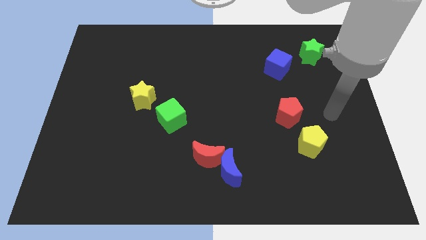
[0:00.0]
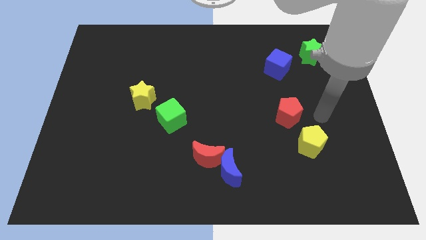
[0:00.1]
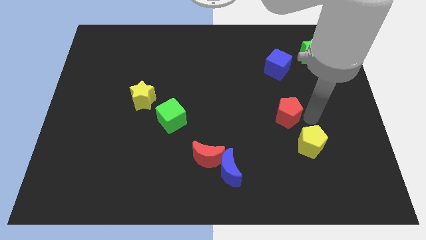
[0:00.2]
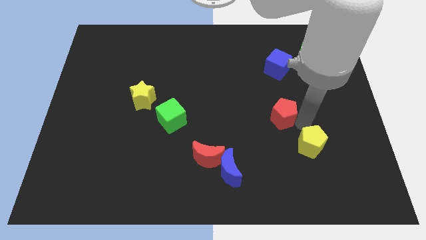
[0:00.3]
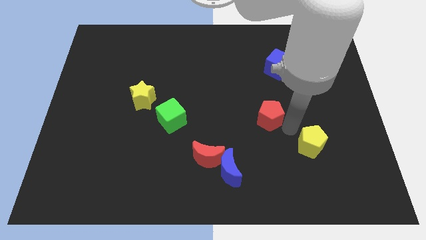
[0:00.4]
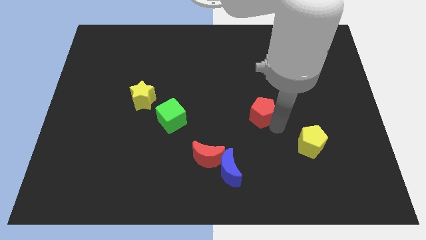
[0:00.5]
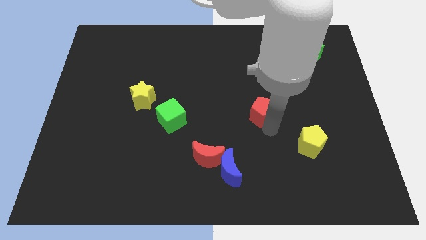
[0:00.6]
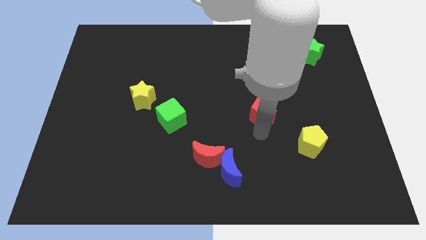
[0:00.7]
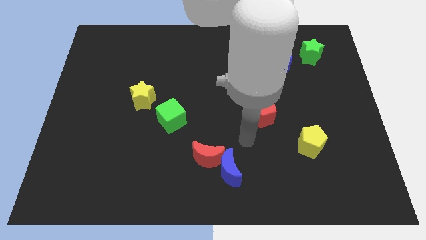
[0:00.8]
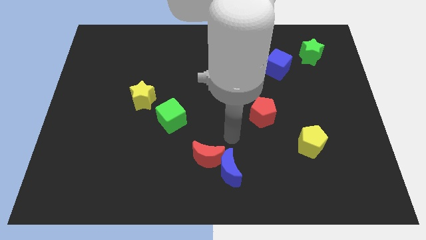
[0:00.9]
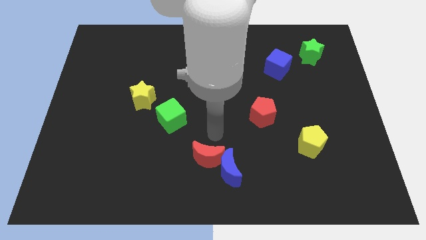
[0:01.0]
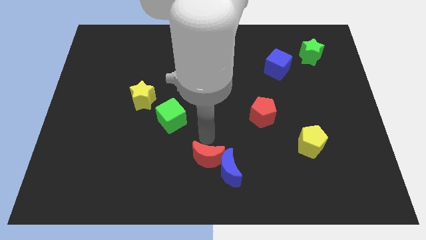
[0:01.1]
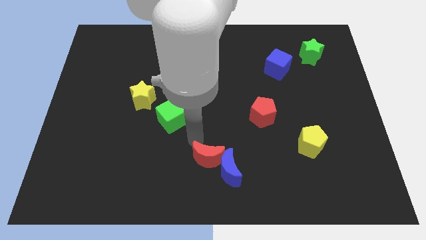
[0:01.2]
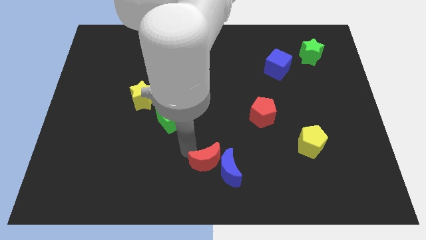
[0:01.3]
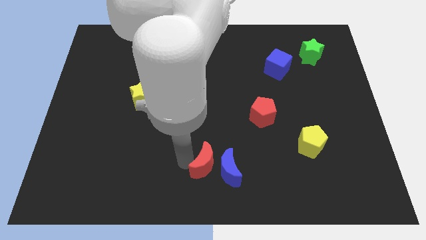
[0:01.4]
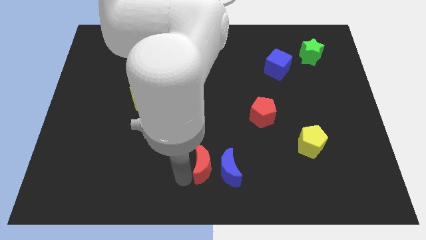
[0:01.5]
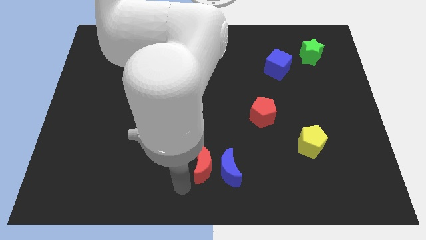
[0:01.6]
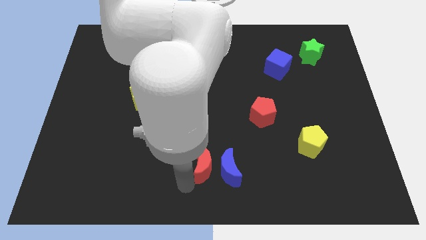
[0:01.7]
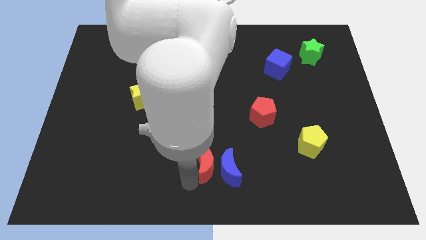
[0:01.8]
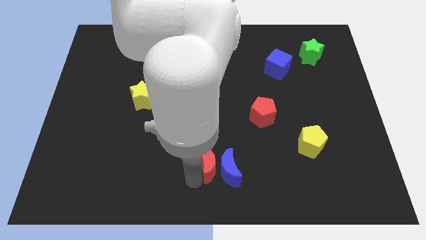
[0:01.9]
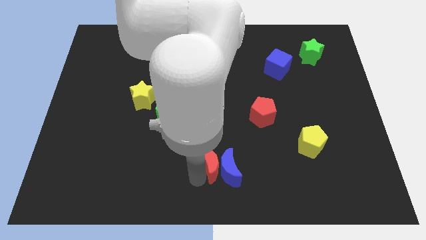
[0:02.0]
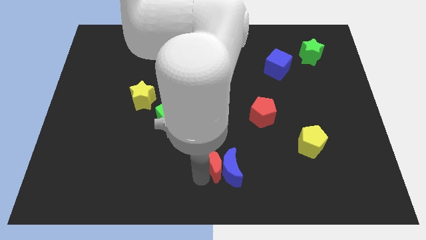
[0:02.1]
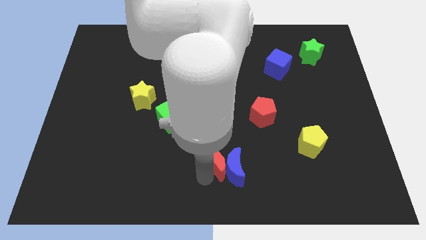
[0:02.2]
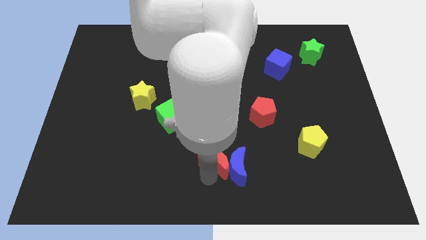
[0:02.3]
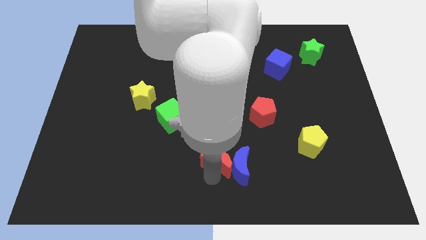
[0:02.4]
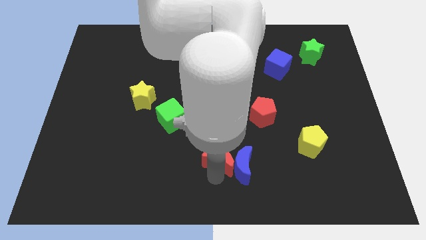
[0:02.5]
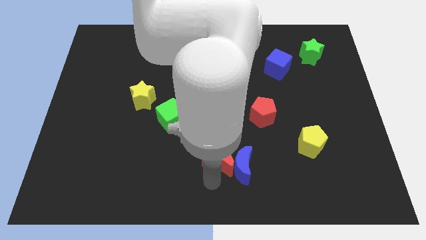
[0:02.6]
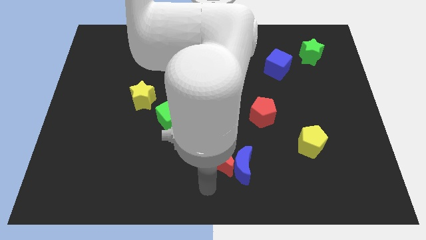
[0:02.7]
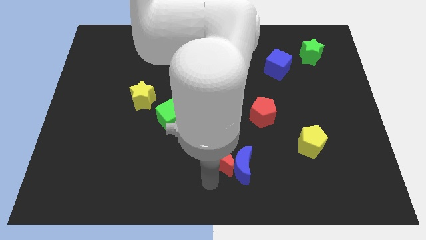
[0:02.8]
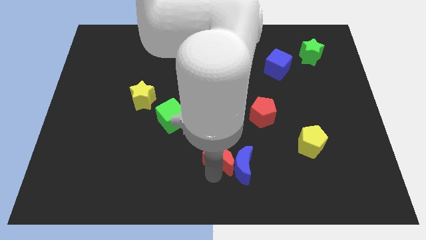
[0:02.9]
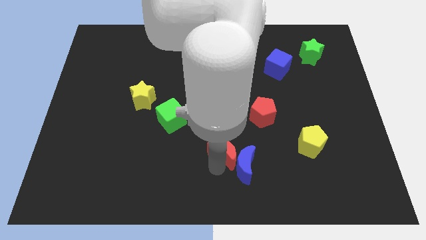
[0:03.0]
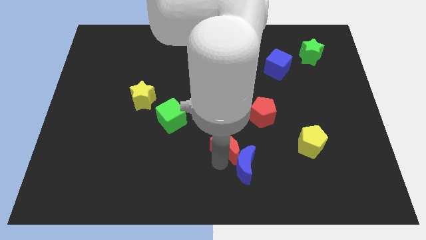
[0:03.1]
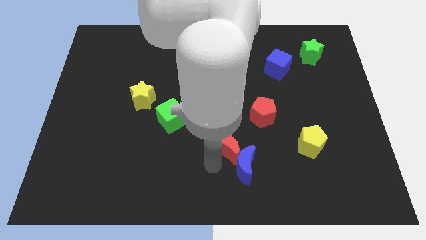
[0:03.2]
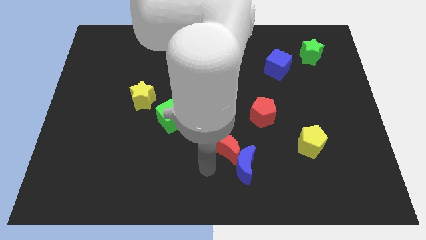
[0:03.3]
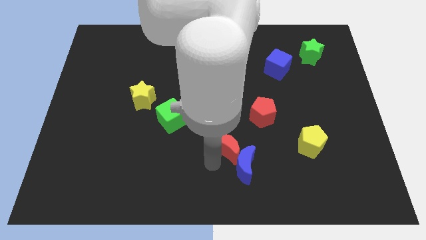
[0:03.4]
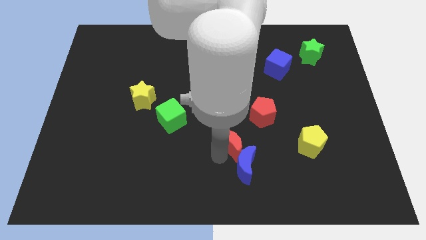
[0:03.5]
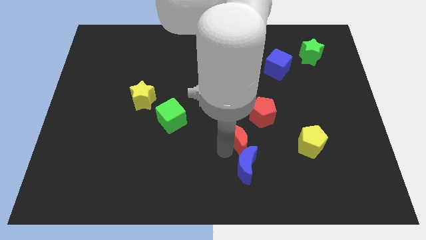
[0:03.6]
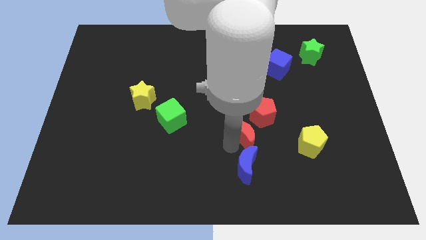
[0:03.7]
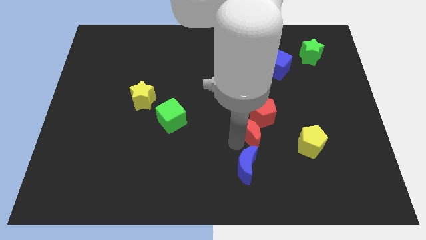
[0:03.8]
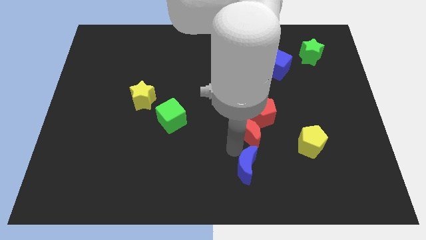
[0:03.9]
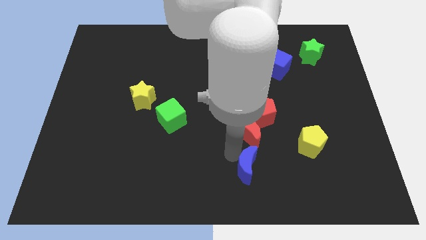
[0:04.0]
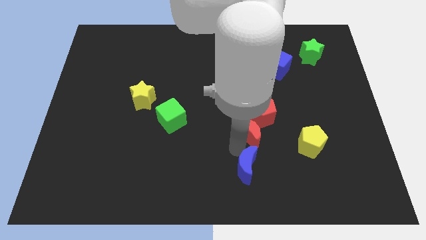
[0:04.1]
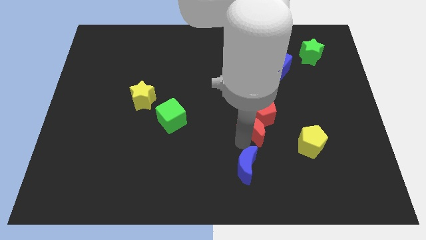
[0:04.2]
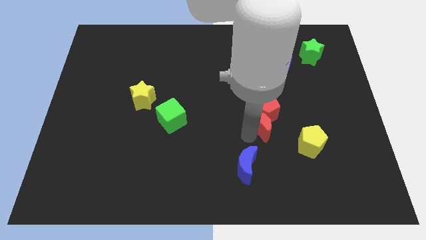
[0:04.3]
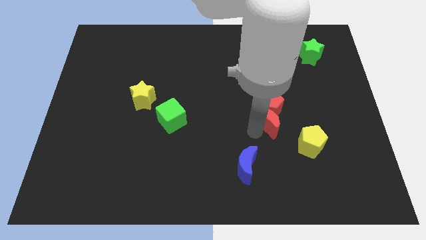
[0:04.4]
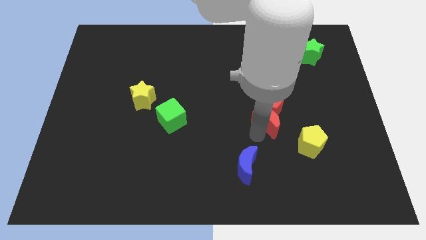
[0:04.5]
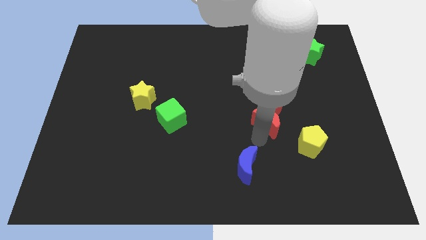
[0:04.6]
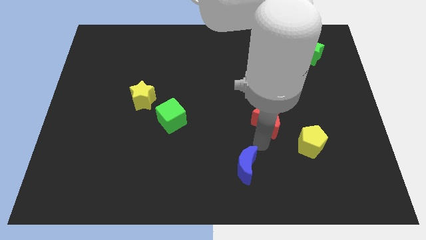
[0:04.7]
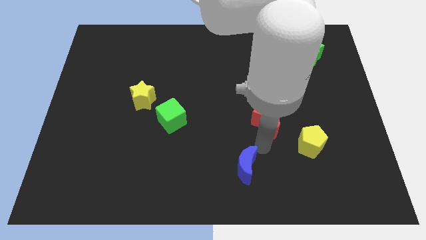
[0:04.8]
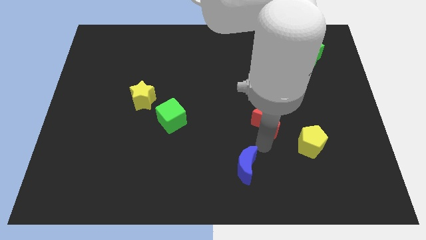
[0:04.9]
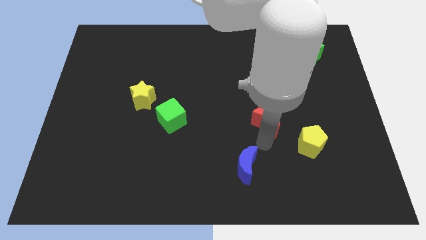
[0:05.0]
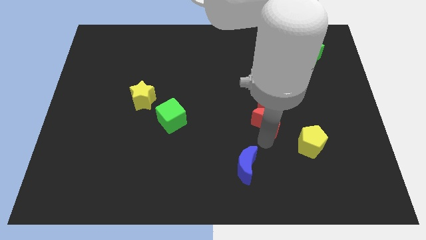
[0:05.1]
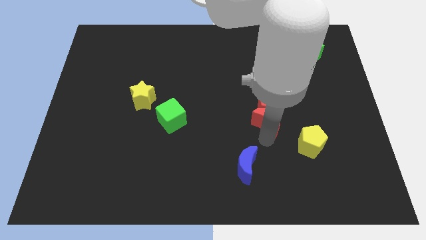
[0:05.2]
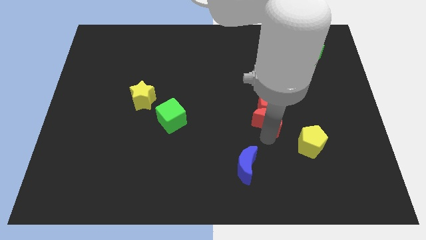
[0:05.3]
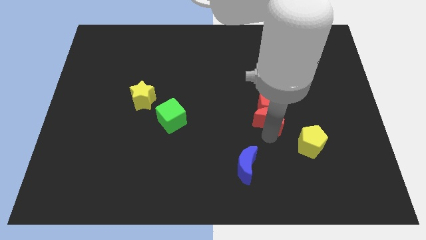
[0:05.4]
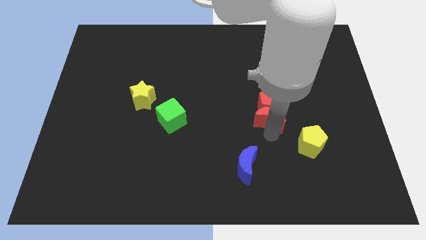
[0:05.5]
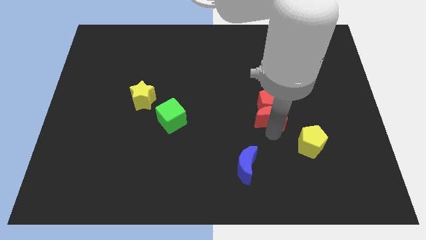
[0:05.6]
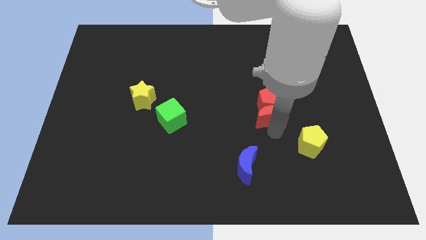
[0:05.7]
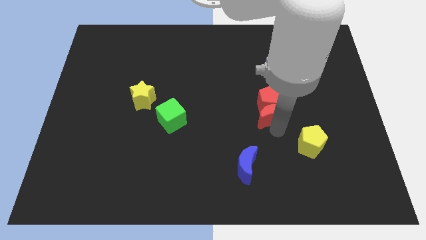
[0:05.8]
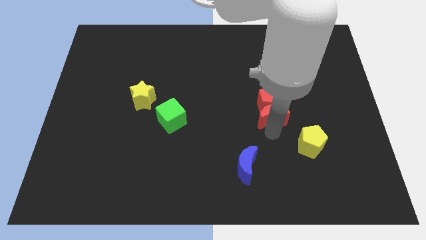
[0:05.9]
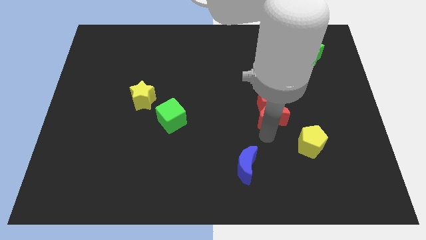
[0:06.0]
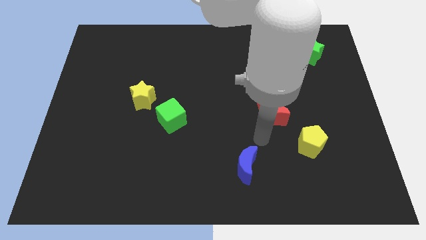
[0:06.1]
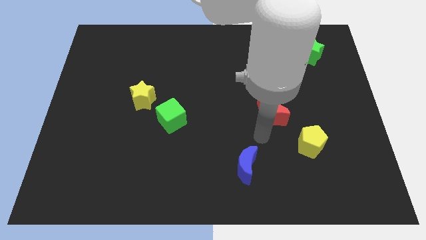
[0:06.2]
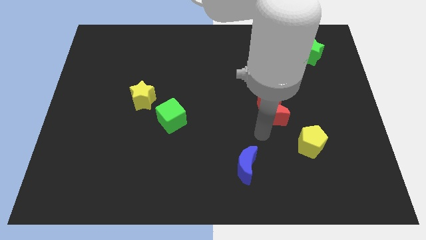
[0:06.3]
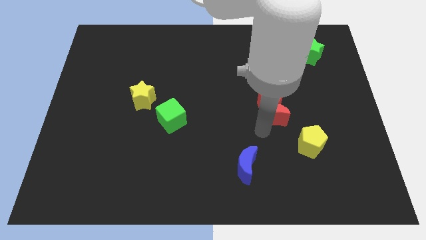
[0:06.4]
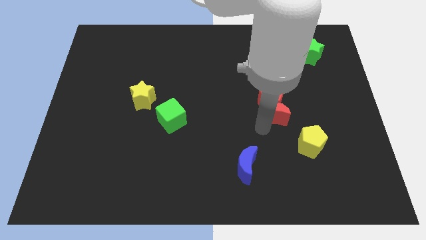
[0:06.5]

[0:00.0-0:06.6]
slide the red moon to the bottom of the blue cube
